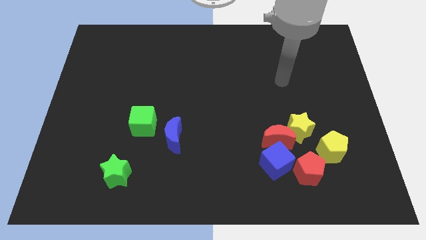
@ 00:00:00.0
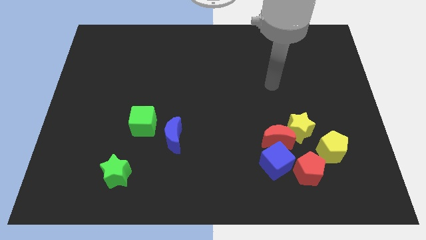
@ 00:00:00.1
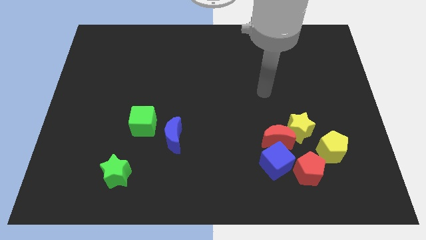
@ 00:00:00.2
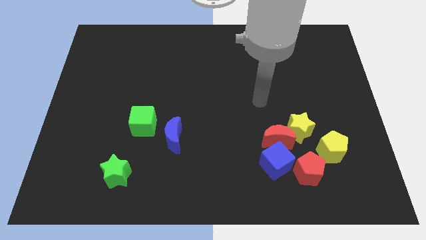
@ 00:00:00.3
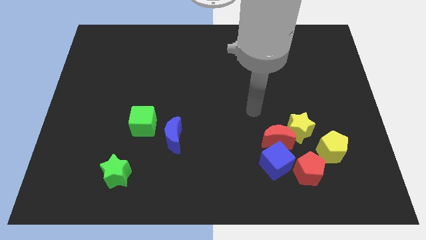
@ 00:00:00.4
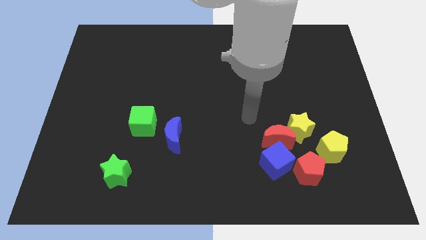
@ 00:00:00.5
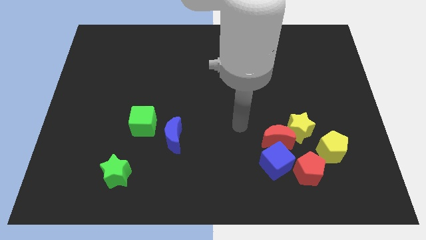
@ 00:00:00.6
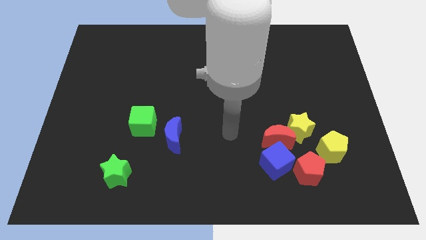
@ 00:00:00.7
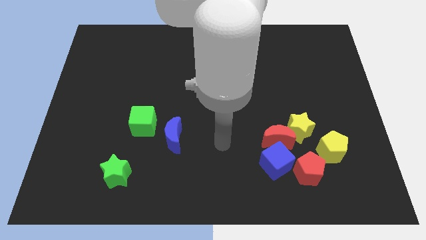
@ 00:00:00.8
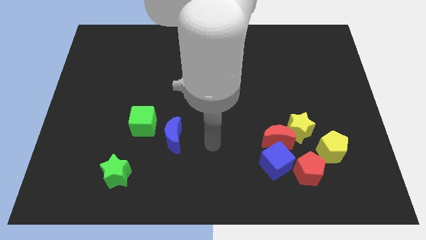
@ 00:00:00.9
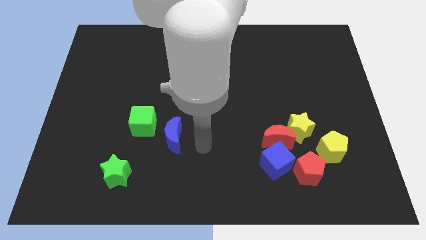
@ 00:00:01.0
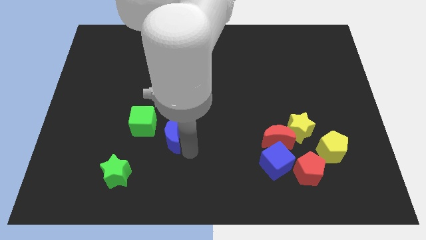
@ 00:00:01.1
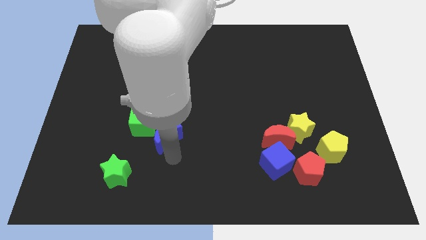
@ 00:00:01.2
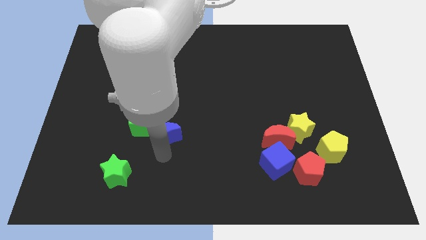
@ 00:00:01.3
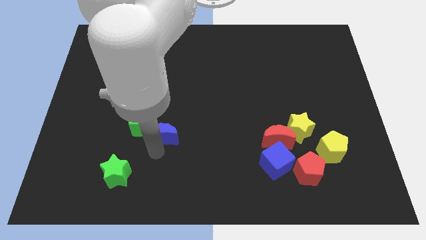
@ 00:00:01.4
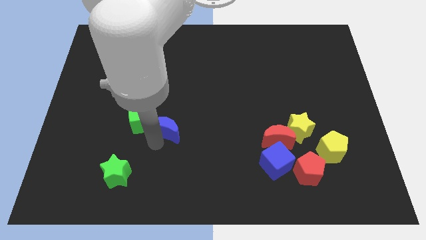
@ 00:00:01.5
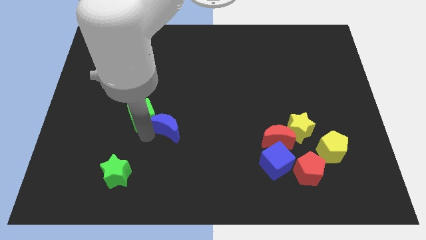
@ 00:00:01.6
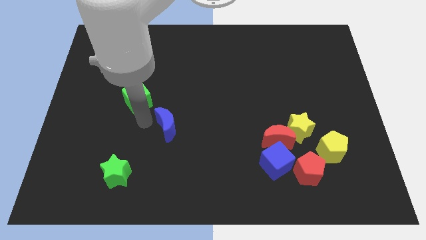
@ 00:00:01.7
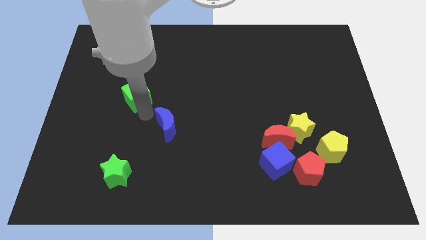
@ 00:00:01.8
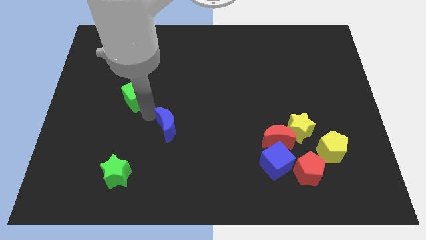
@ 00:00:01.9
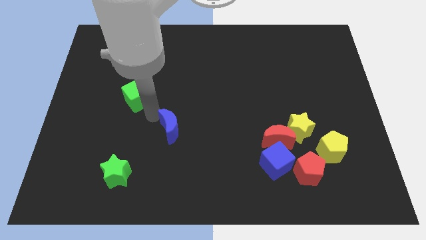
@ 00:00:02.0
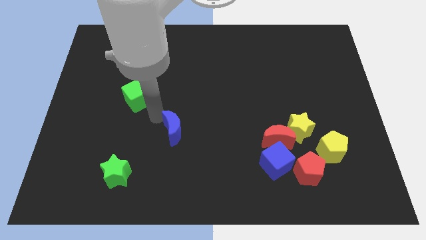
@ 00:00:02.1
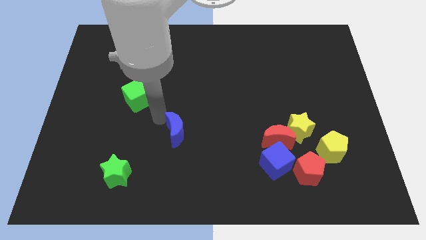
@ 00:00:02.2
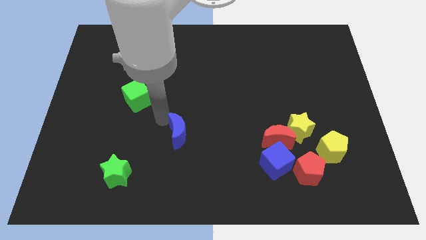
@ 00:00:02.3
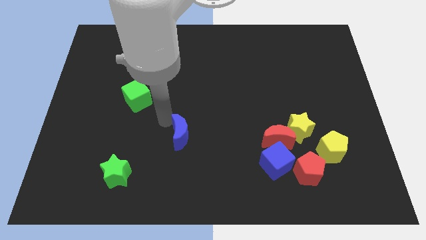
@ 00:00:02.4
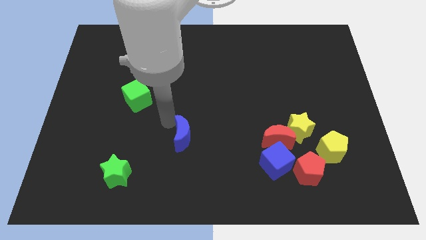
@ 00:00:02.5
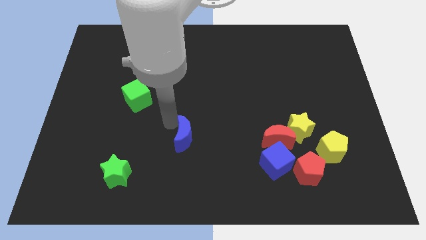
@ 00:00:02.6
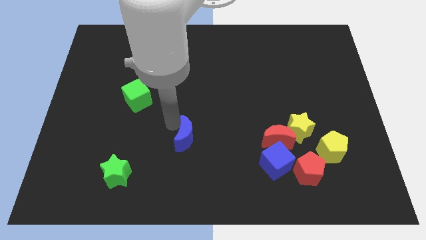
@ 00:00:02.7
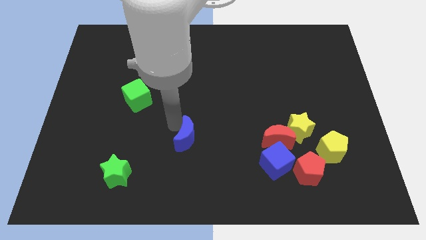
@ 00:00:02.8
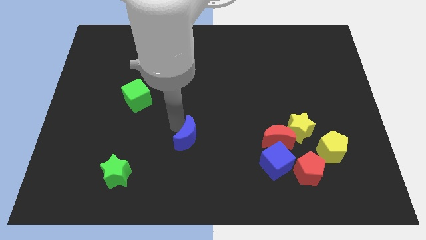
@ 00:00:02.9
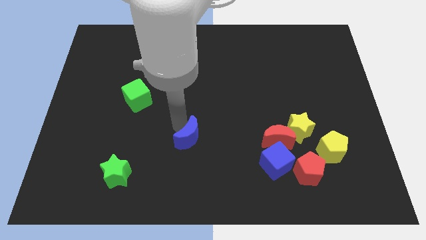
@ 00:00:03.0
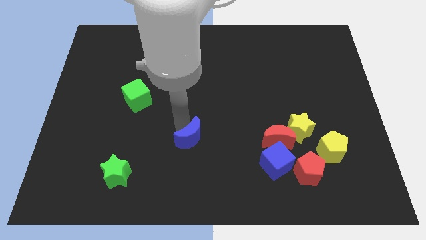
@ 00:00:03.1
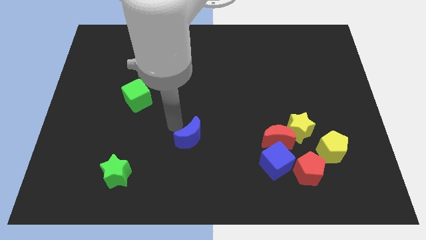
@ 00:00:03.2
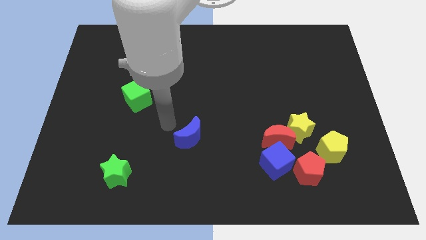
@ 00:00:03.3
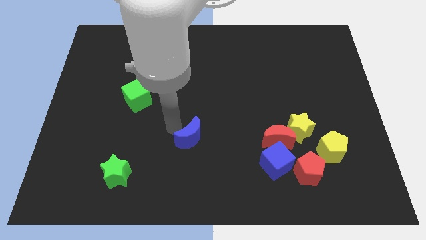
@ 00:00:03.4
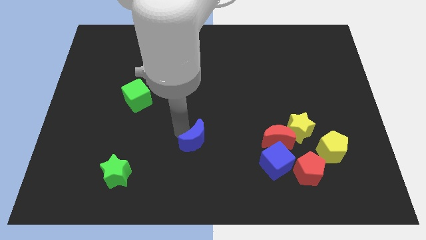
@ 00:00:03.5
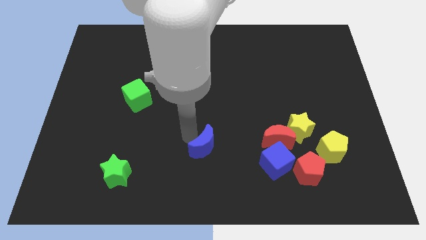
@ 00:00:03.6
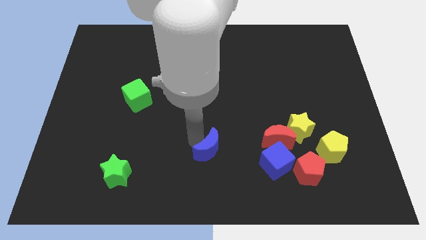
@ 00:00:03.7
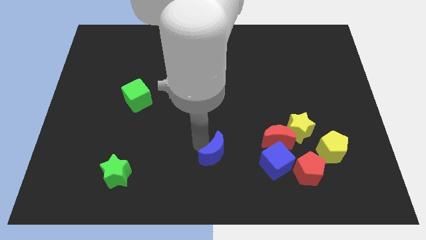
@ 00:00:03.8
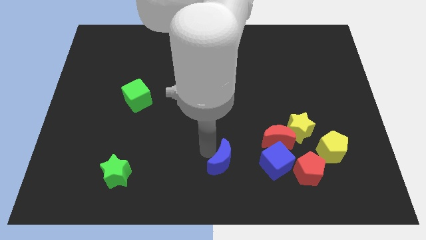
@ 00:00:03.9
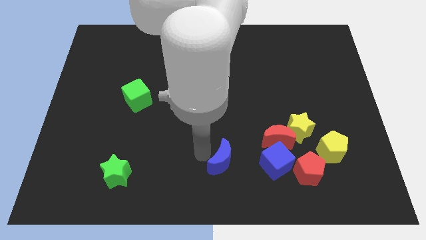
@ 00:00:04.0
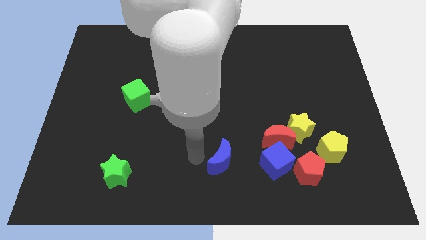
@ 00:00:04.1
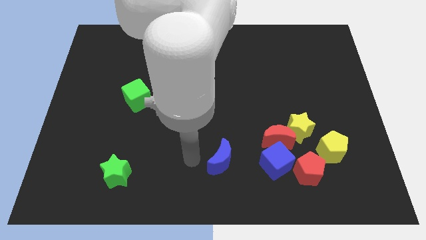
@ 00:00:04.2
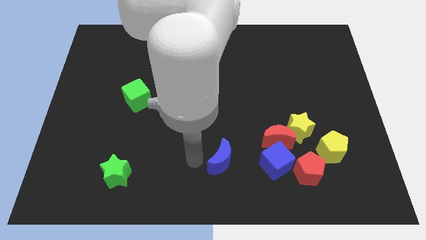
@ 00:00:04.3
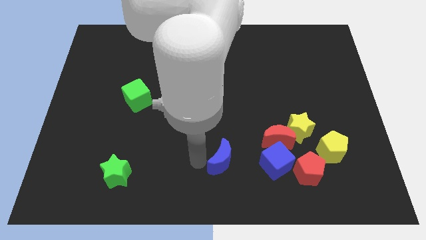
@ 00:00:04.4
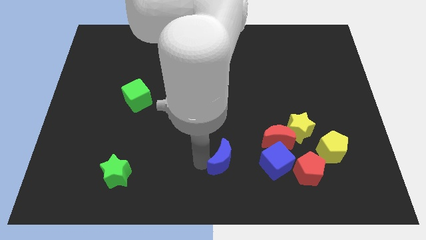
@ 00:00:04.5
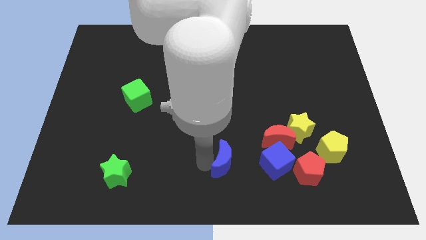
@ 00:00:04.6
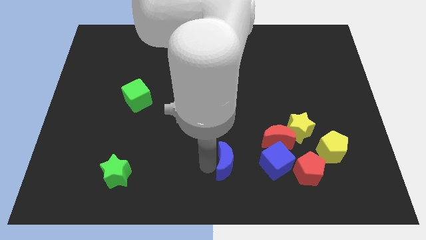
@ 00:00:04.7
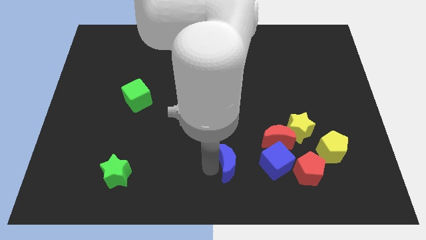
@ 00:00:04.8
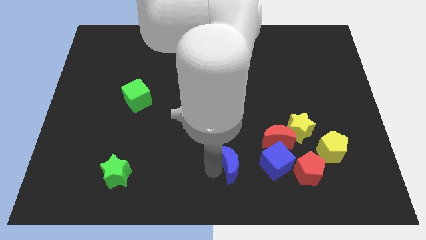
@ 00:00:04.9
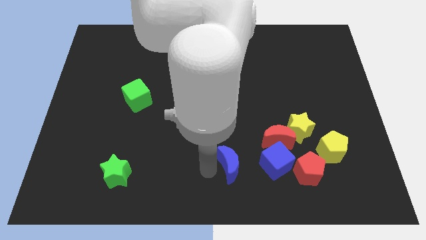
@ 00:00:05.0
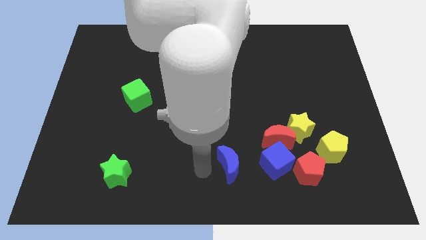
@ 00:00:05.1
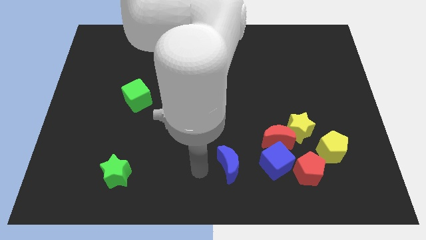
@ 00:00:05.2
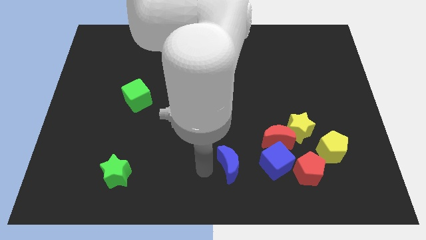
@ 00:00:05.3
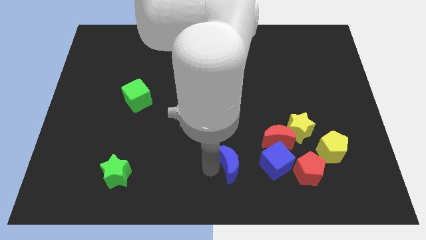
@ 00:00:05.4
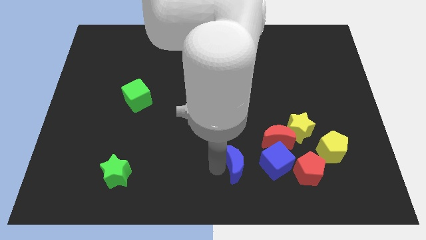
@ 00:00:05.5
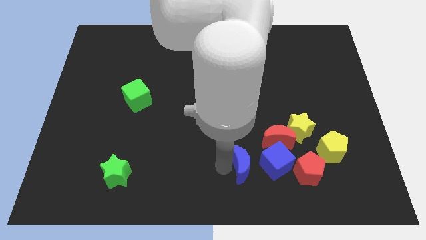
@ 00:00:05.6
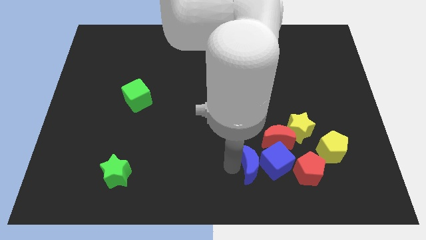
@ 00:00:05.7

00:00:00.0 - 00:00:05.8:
put the blue moon to the blue cube
